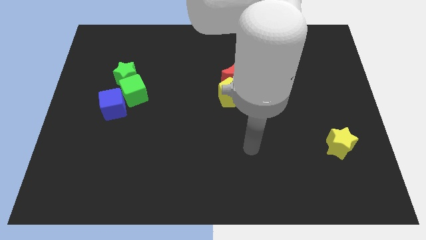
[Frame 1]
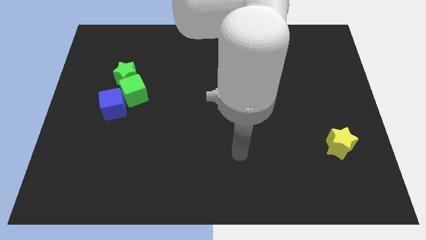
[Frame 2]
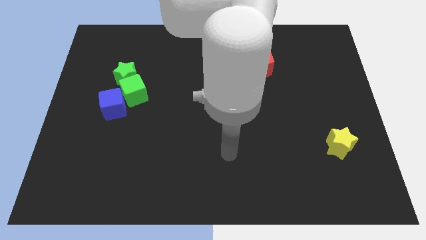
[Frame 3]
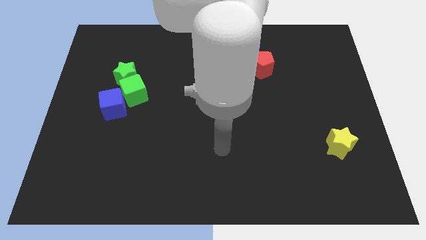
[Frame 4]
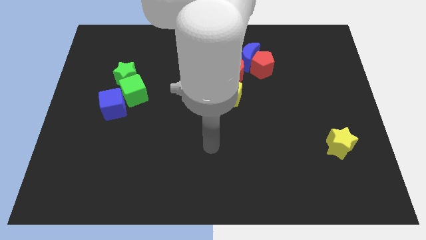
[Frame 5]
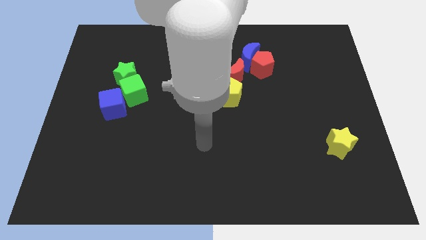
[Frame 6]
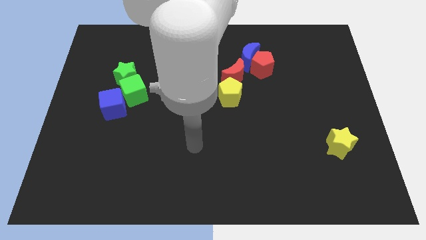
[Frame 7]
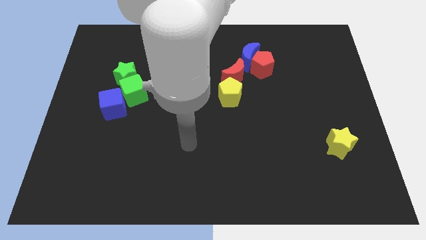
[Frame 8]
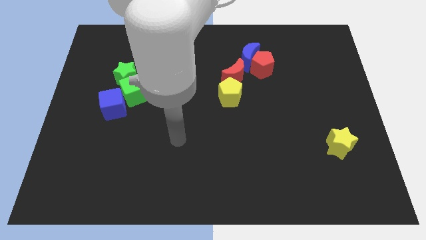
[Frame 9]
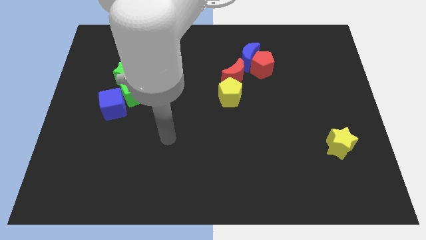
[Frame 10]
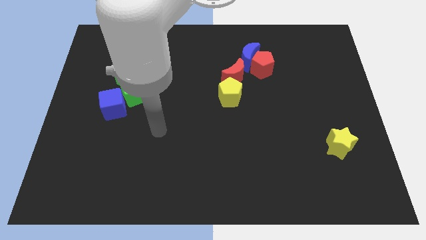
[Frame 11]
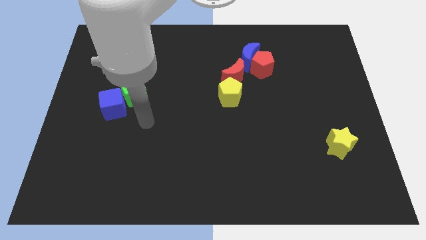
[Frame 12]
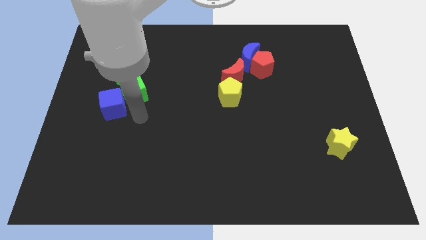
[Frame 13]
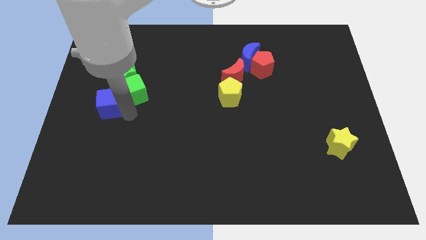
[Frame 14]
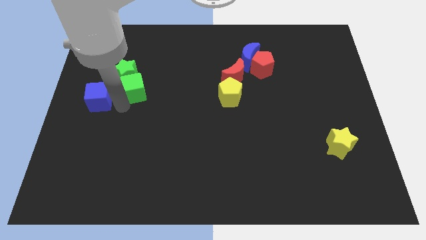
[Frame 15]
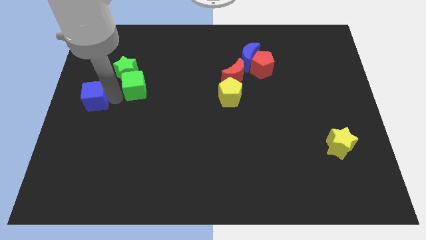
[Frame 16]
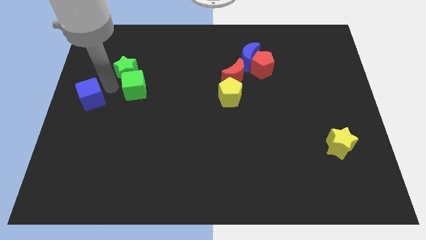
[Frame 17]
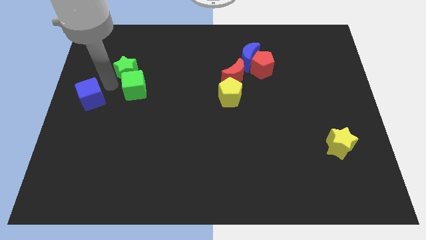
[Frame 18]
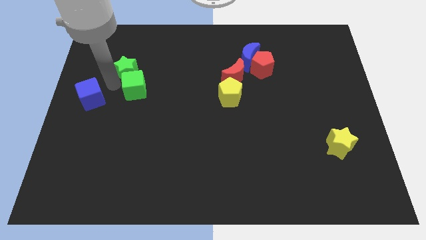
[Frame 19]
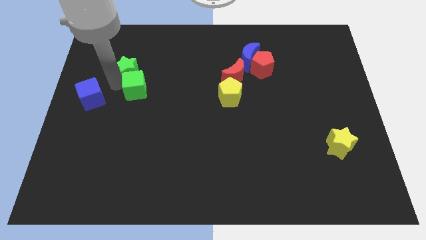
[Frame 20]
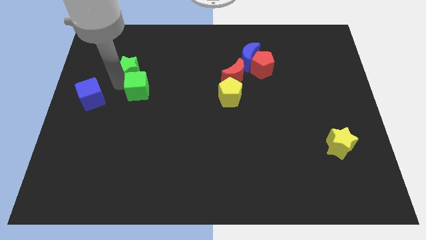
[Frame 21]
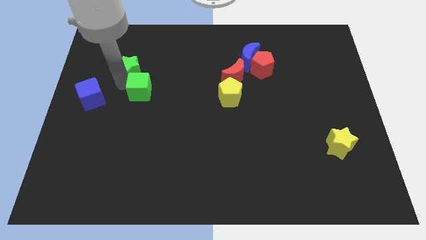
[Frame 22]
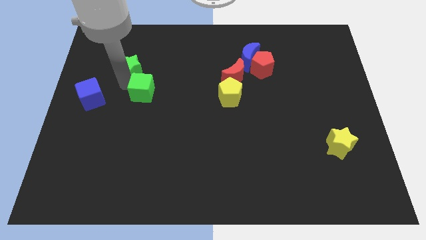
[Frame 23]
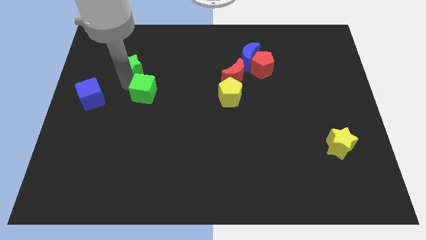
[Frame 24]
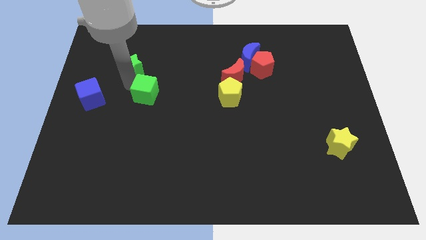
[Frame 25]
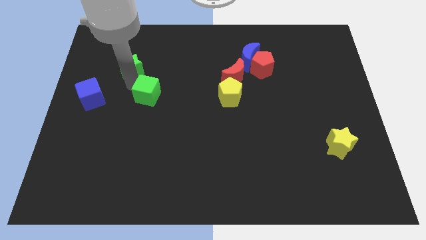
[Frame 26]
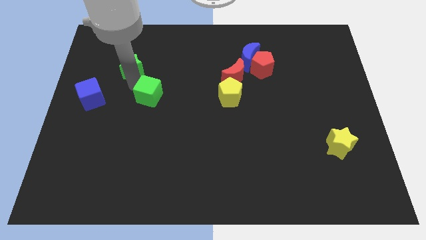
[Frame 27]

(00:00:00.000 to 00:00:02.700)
separate the green cube from the green star and blue cube

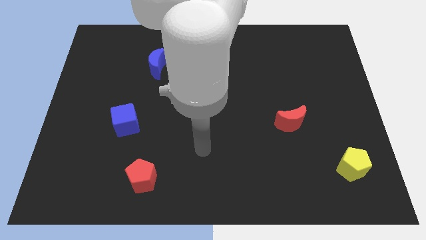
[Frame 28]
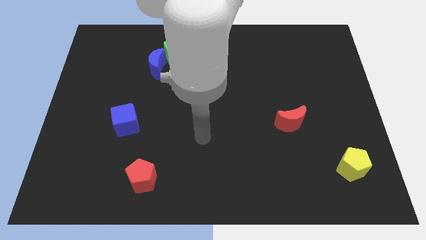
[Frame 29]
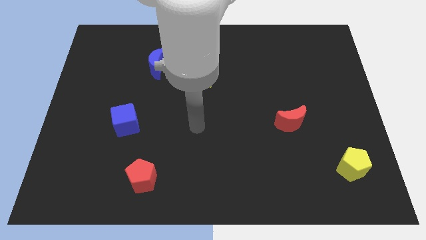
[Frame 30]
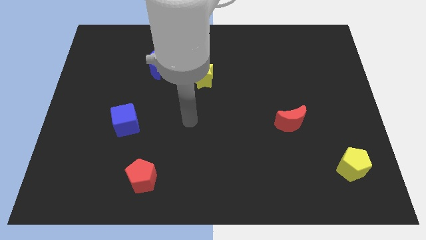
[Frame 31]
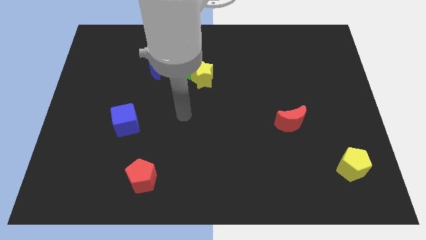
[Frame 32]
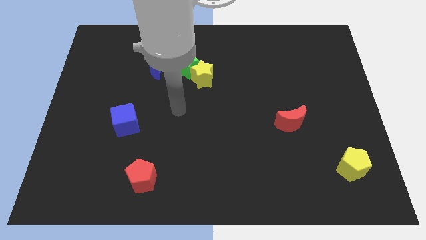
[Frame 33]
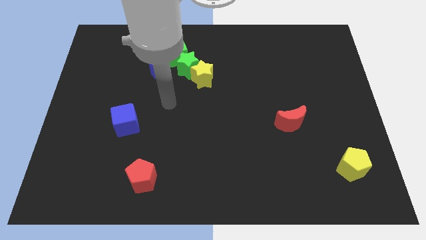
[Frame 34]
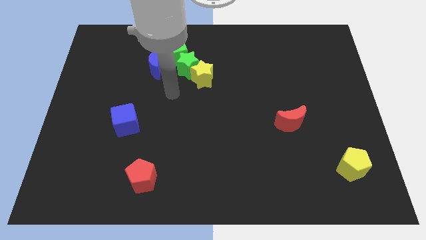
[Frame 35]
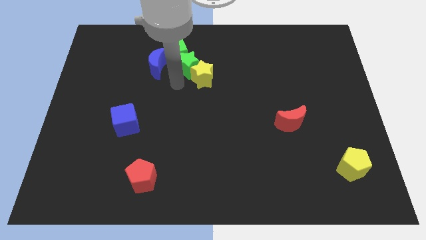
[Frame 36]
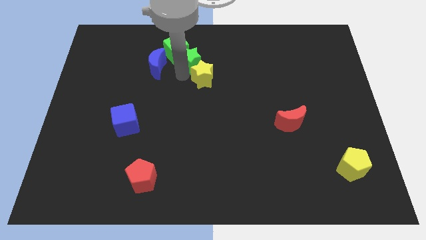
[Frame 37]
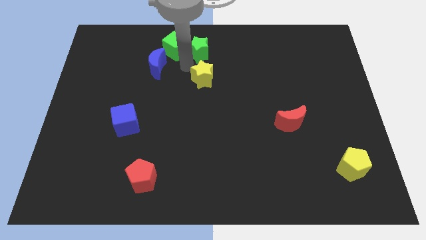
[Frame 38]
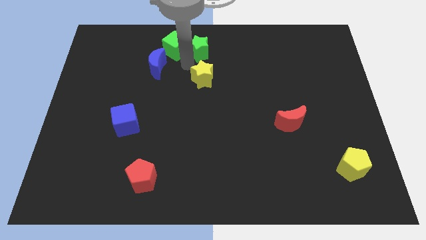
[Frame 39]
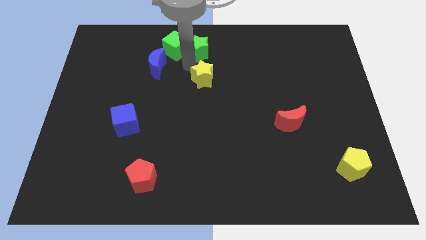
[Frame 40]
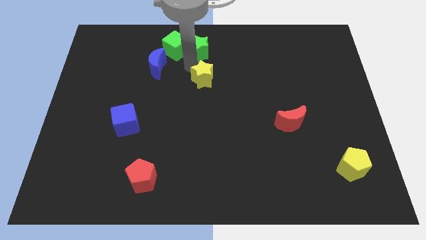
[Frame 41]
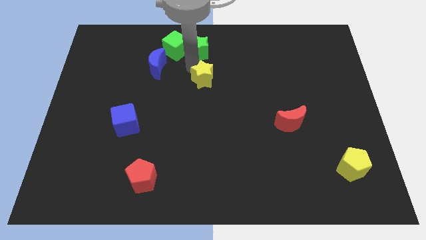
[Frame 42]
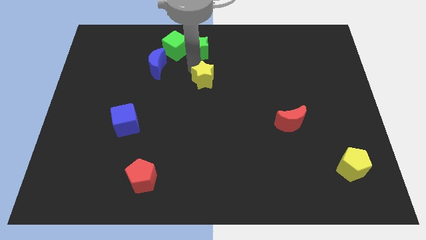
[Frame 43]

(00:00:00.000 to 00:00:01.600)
pull the yellow star apart from the green star

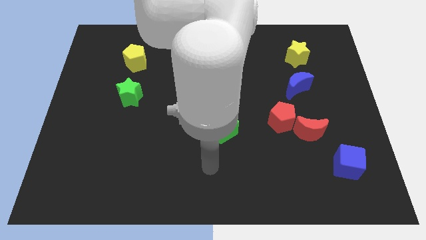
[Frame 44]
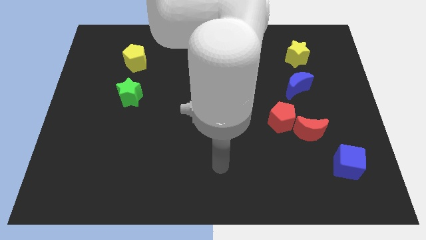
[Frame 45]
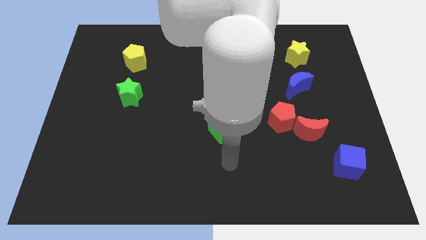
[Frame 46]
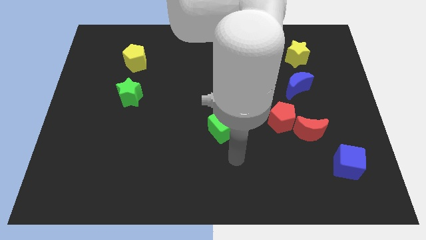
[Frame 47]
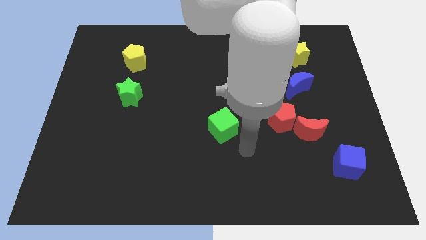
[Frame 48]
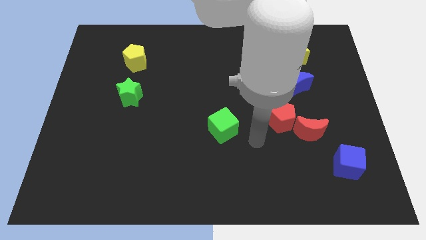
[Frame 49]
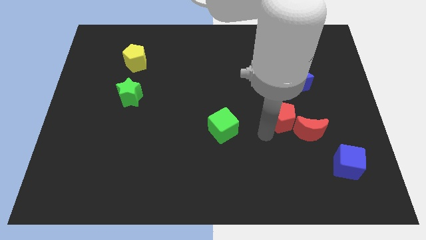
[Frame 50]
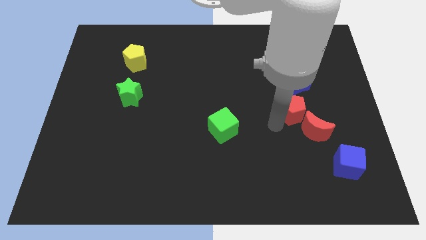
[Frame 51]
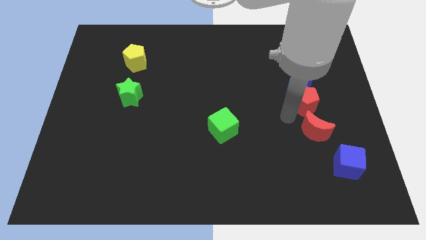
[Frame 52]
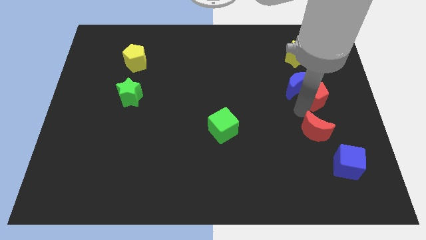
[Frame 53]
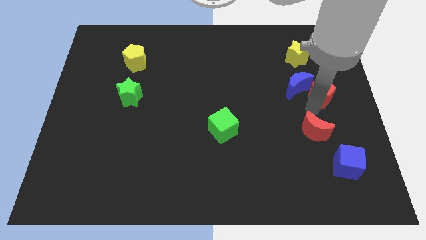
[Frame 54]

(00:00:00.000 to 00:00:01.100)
move the red moon away from the red pentagon

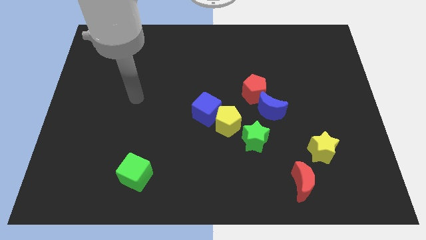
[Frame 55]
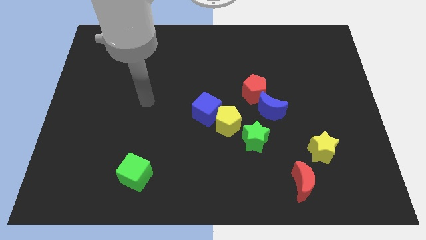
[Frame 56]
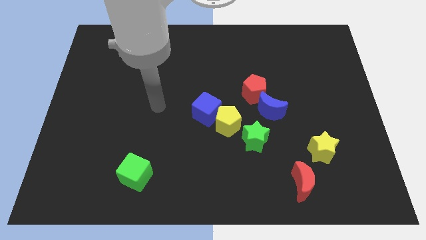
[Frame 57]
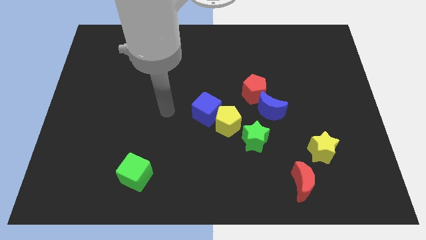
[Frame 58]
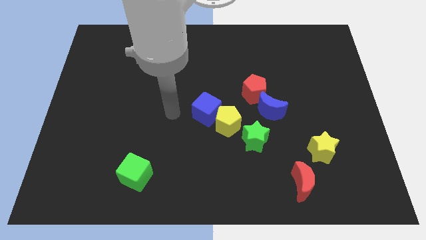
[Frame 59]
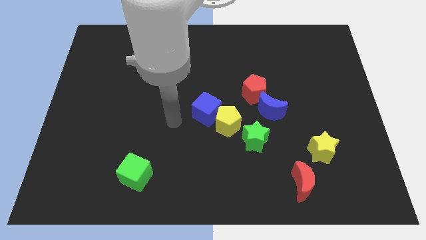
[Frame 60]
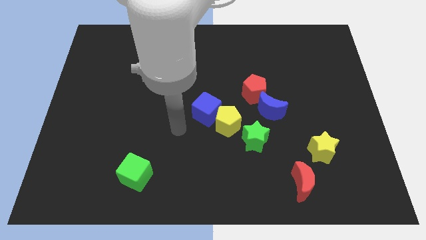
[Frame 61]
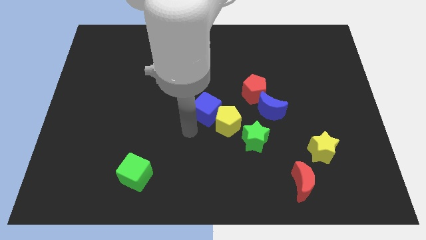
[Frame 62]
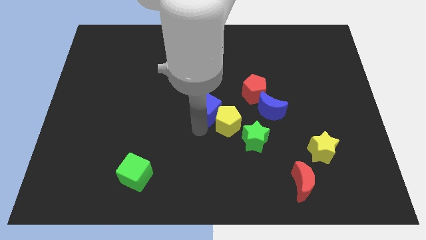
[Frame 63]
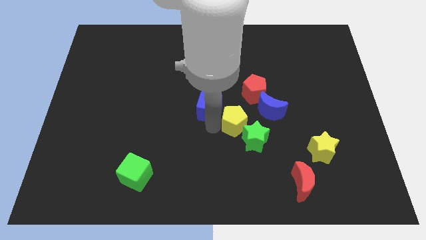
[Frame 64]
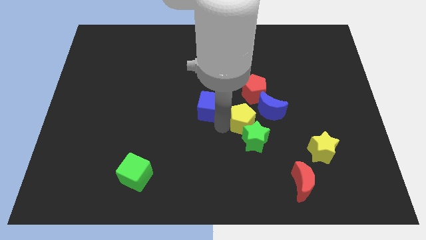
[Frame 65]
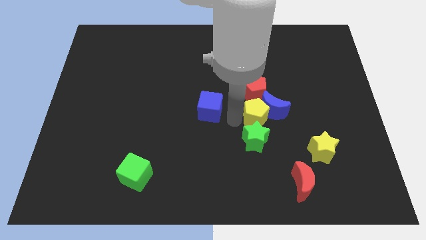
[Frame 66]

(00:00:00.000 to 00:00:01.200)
pull the blue cube apart from the yellow pentagon

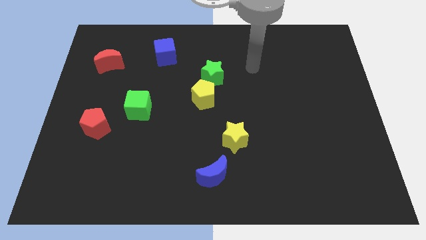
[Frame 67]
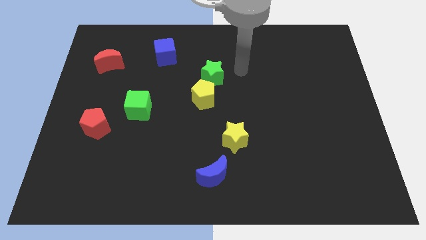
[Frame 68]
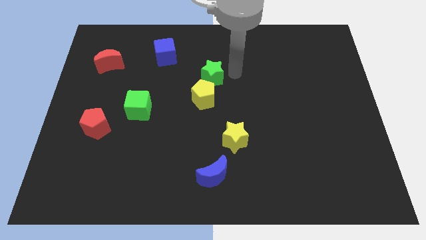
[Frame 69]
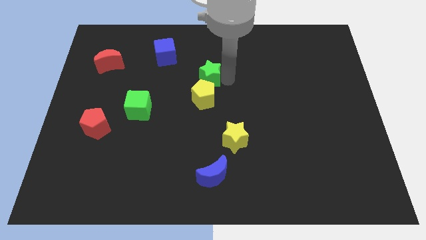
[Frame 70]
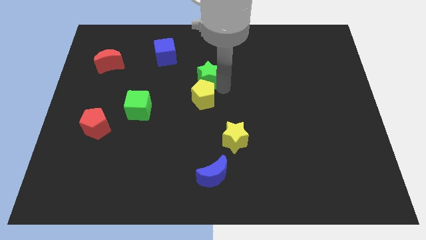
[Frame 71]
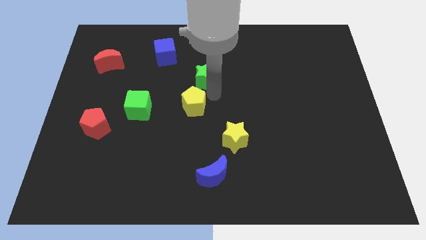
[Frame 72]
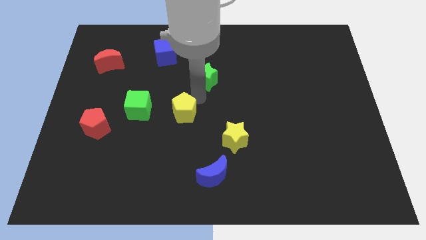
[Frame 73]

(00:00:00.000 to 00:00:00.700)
move the green star away from the yellow pentagon

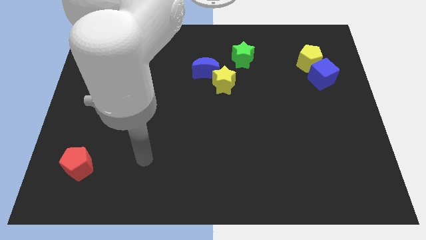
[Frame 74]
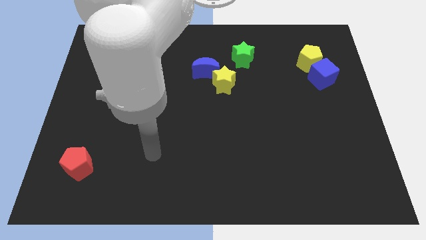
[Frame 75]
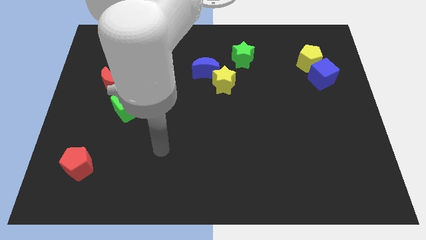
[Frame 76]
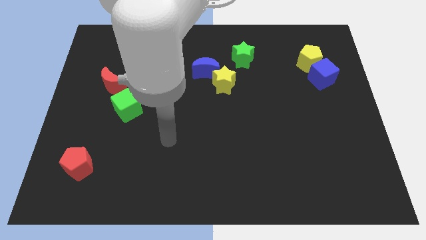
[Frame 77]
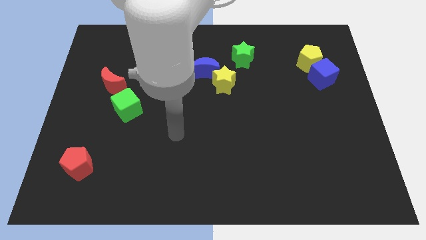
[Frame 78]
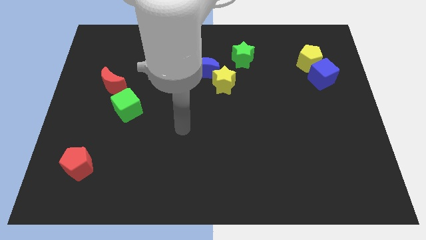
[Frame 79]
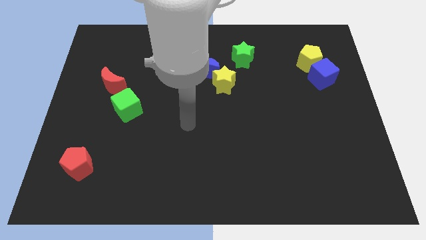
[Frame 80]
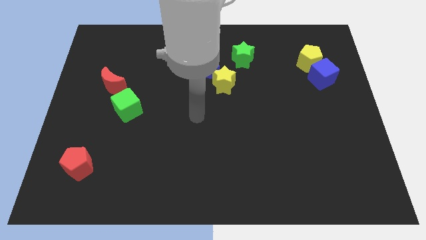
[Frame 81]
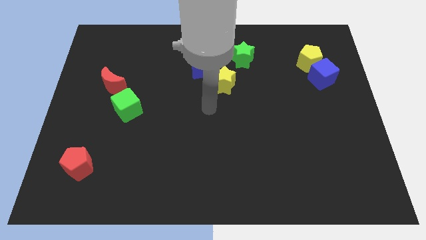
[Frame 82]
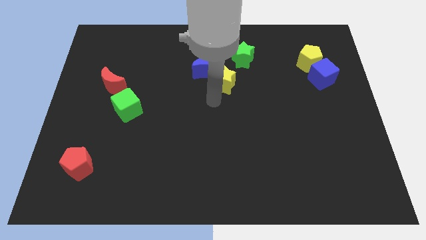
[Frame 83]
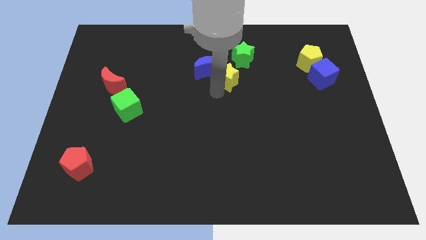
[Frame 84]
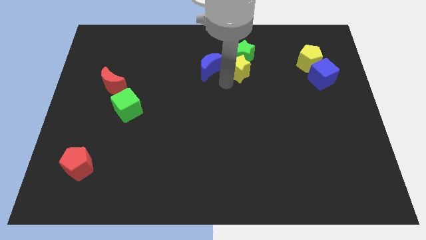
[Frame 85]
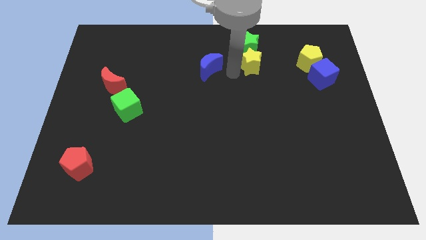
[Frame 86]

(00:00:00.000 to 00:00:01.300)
pull the blue moon apart from the yellow star

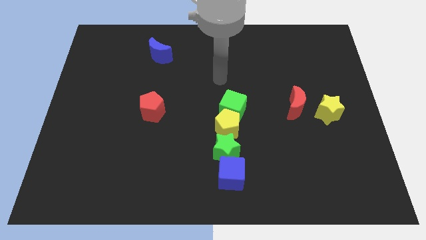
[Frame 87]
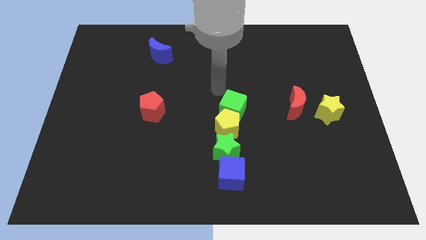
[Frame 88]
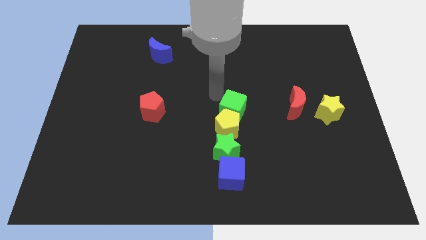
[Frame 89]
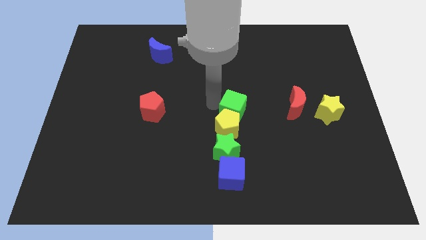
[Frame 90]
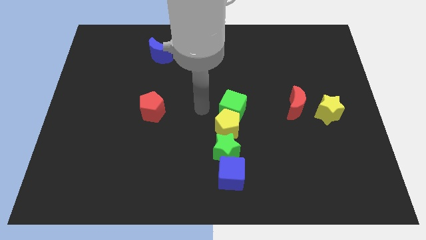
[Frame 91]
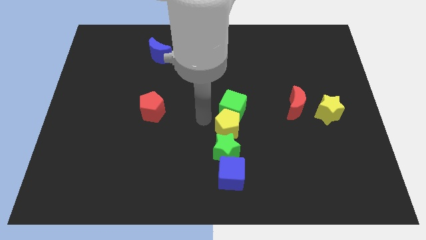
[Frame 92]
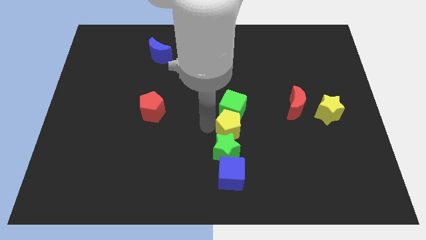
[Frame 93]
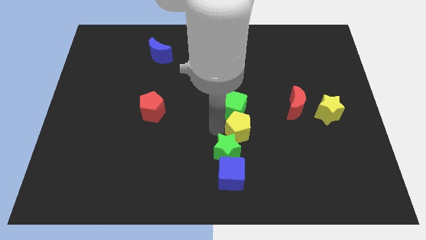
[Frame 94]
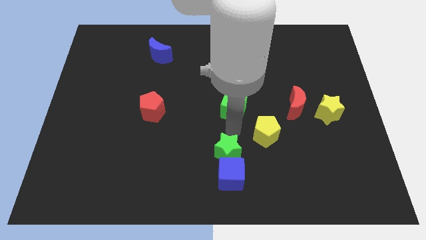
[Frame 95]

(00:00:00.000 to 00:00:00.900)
move the green cube away from the yellow pentagon
